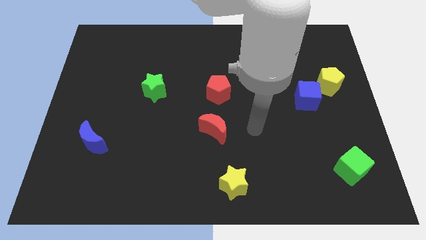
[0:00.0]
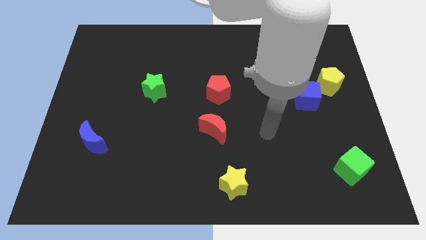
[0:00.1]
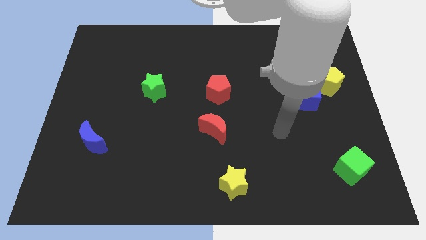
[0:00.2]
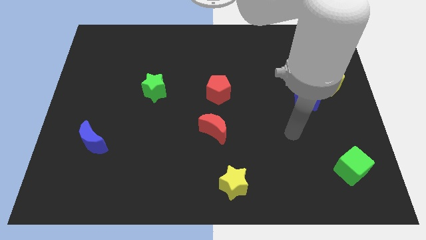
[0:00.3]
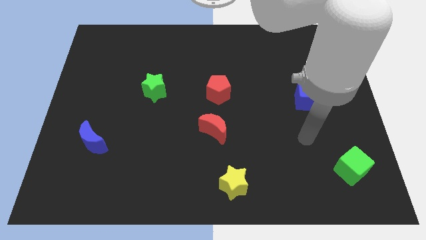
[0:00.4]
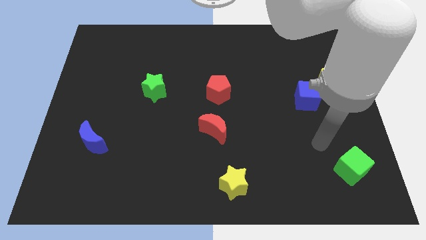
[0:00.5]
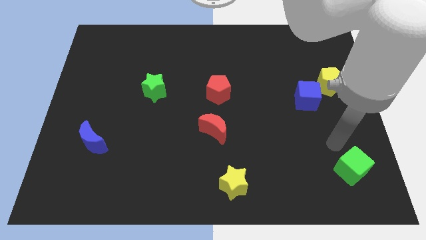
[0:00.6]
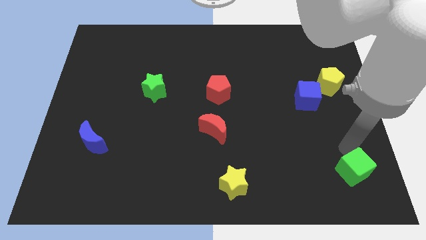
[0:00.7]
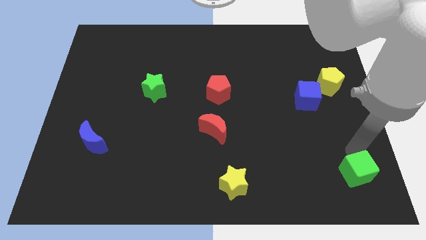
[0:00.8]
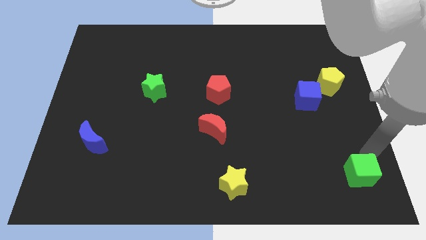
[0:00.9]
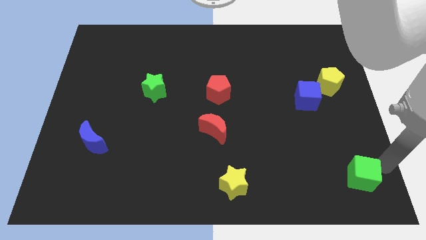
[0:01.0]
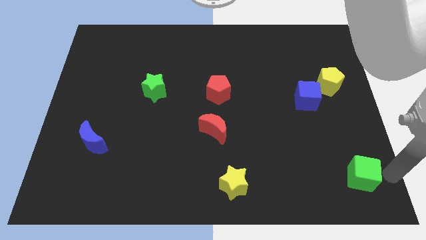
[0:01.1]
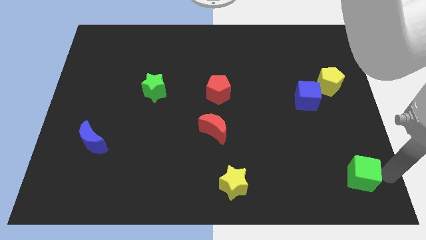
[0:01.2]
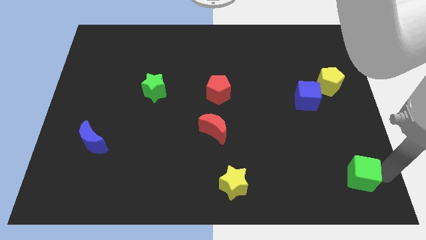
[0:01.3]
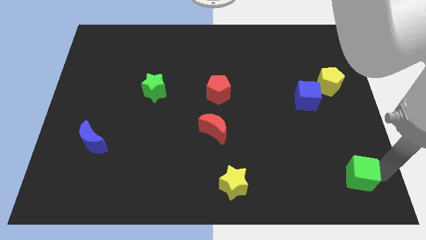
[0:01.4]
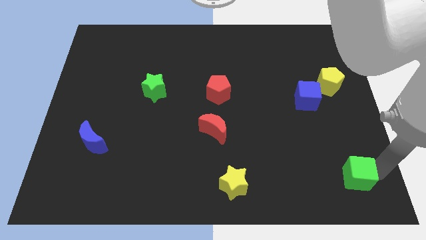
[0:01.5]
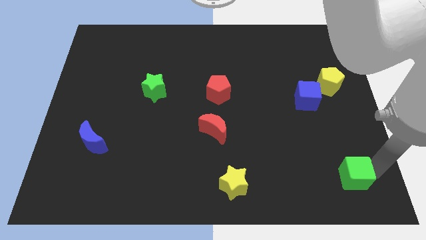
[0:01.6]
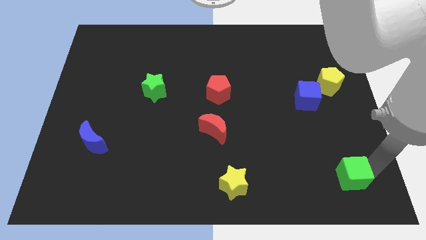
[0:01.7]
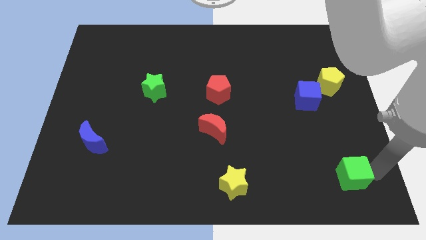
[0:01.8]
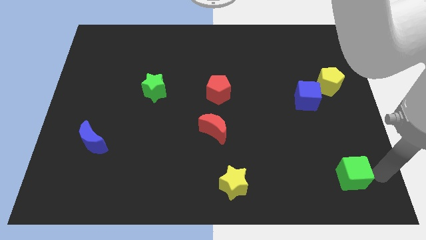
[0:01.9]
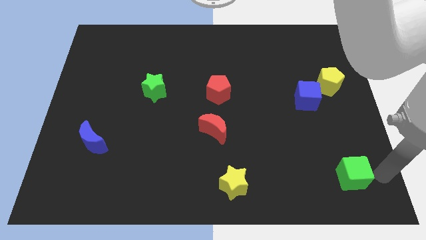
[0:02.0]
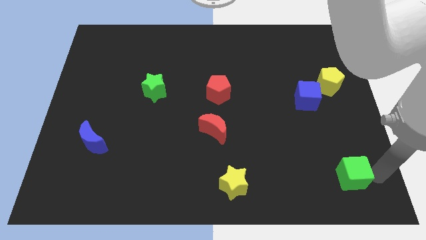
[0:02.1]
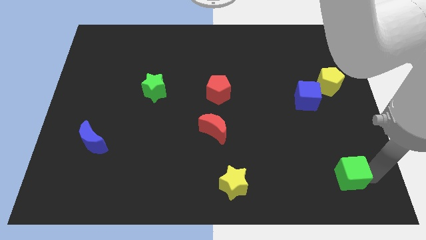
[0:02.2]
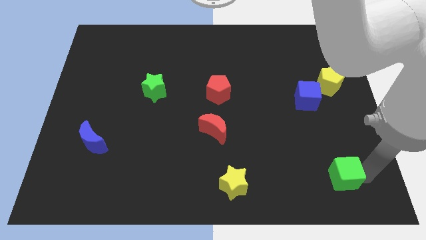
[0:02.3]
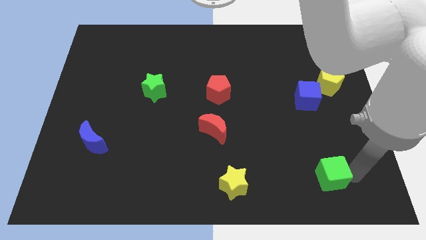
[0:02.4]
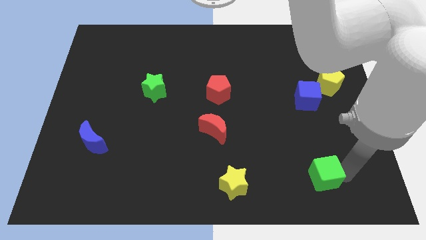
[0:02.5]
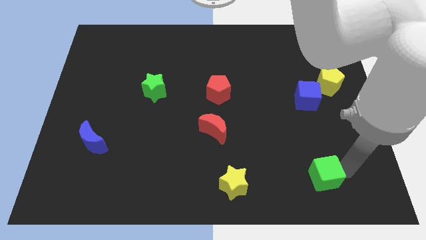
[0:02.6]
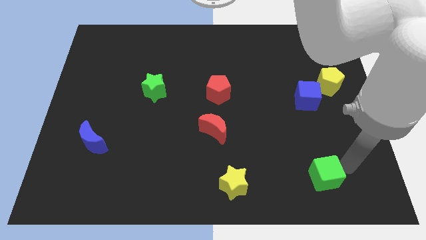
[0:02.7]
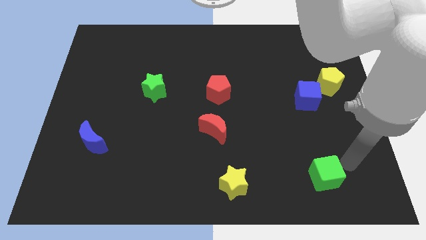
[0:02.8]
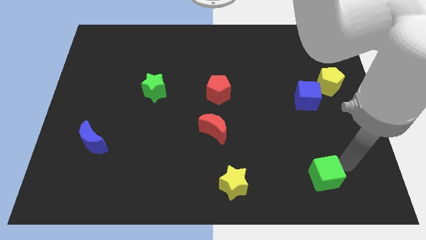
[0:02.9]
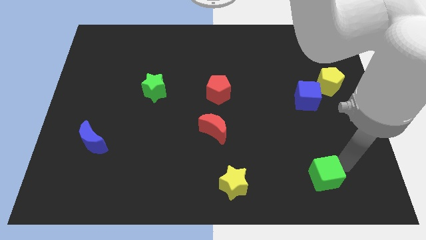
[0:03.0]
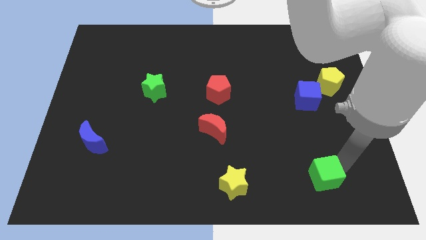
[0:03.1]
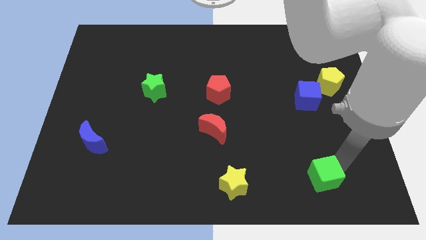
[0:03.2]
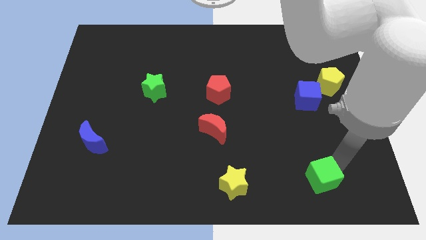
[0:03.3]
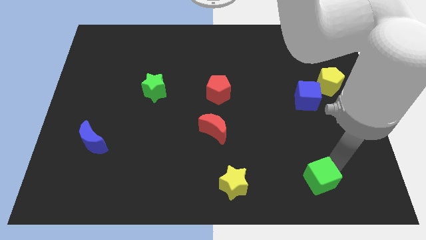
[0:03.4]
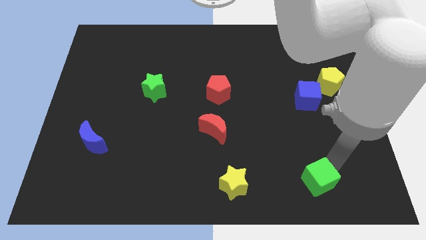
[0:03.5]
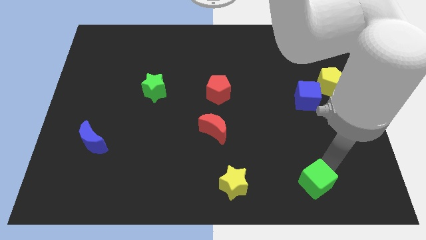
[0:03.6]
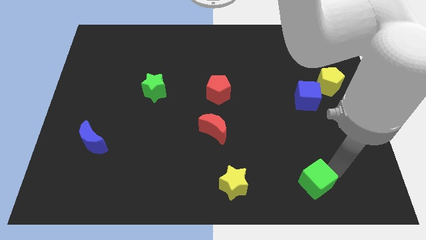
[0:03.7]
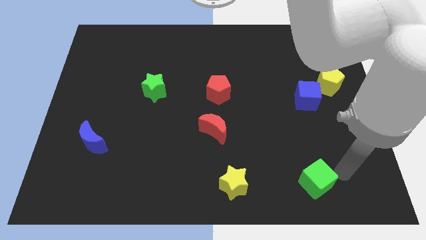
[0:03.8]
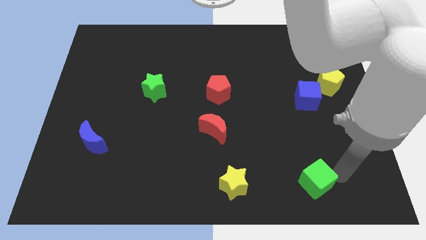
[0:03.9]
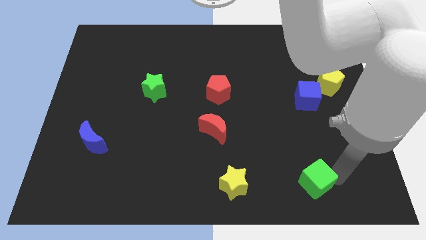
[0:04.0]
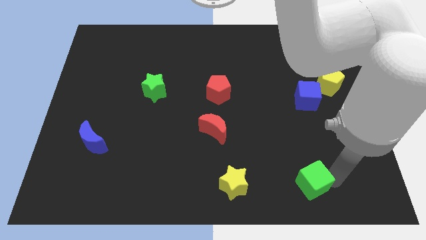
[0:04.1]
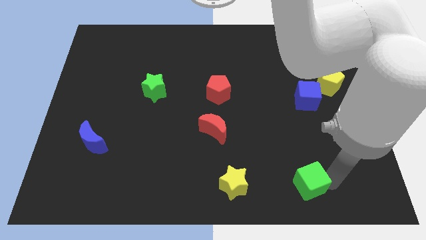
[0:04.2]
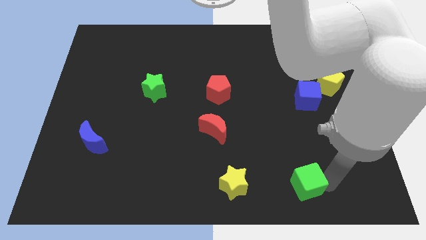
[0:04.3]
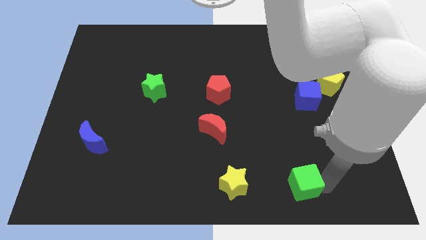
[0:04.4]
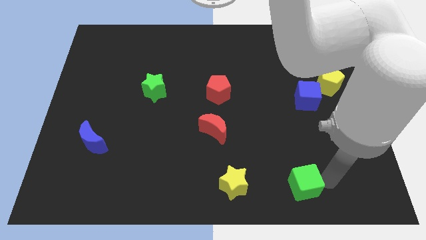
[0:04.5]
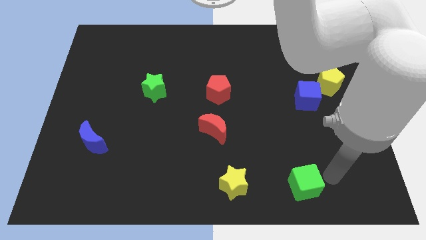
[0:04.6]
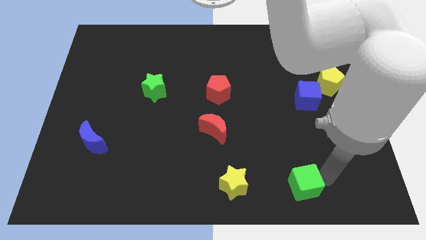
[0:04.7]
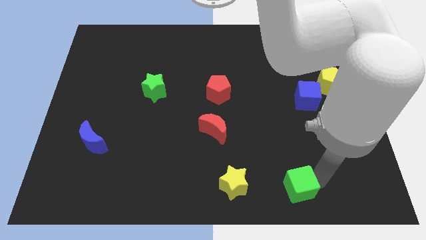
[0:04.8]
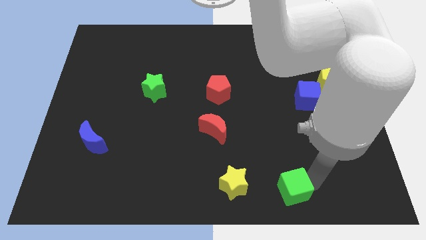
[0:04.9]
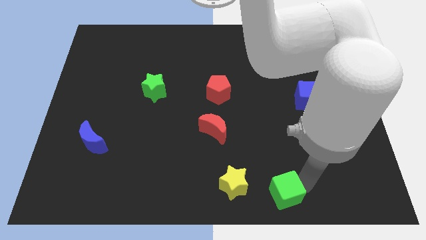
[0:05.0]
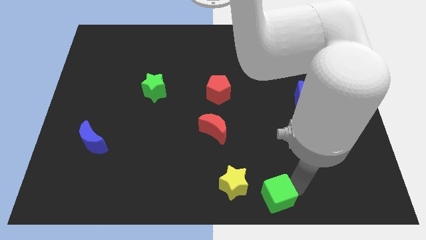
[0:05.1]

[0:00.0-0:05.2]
put the green cube to the bottom side

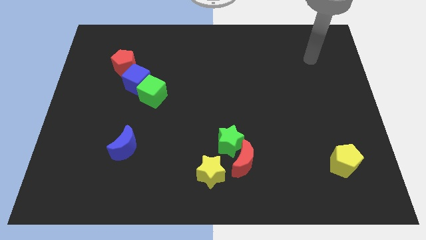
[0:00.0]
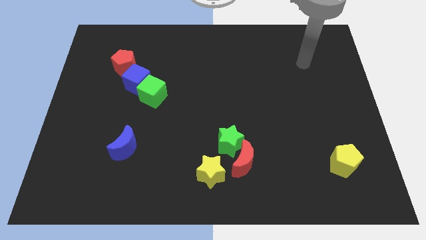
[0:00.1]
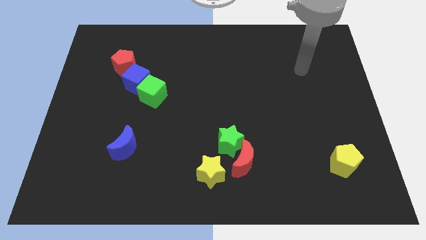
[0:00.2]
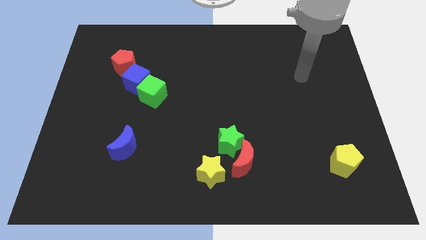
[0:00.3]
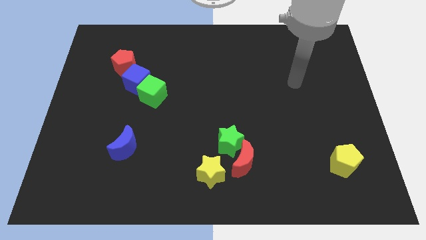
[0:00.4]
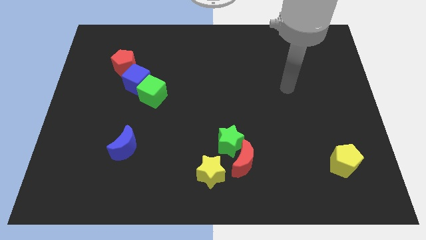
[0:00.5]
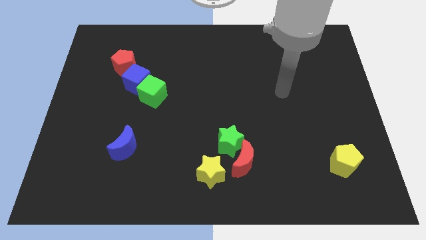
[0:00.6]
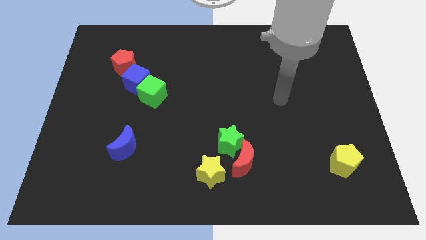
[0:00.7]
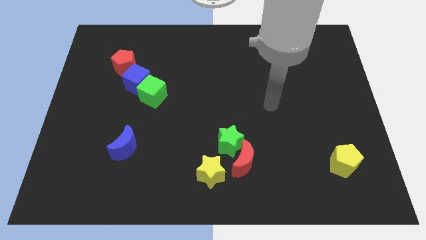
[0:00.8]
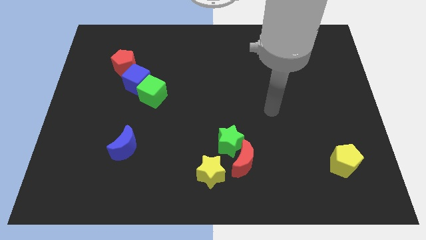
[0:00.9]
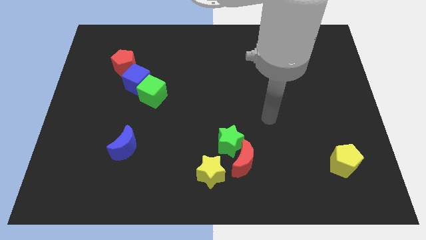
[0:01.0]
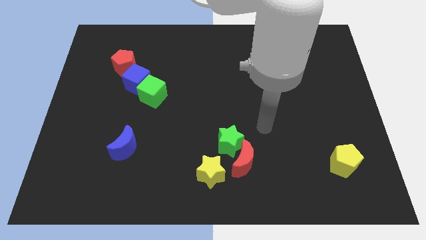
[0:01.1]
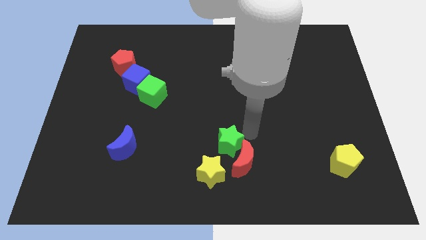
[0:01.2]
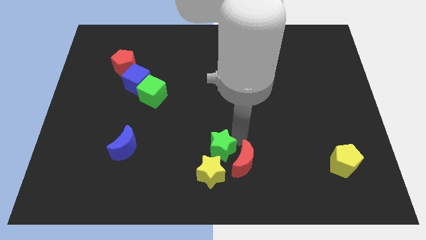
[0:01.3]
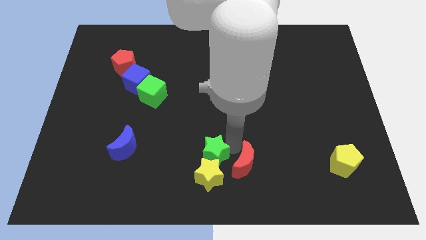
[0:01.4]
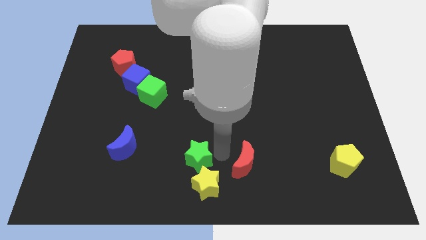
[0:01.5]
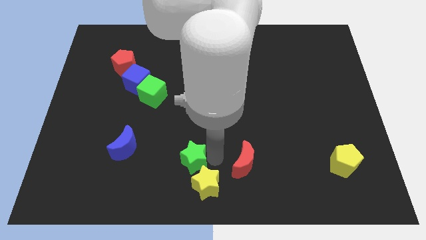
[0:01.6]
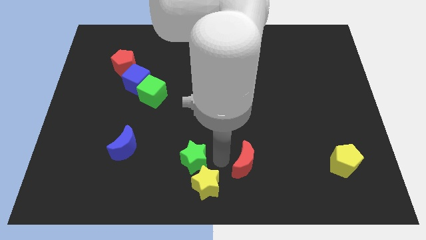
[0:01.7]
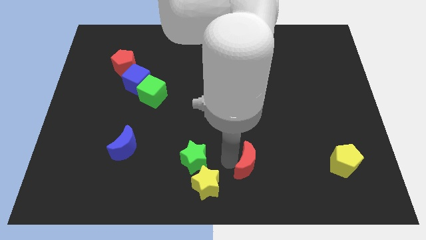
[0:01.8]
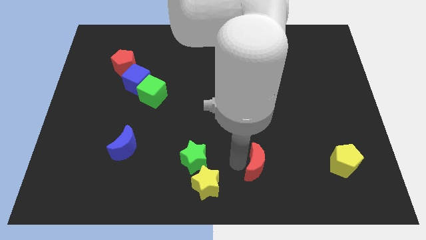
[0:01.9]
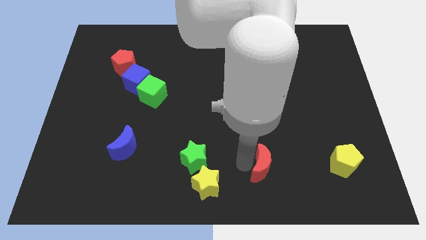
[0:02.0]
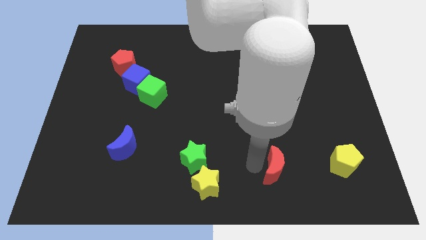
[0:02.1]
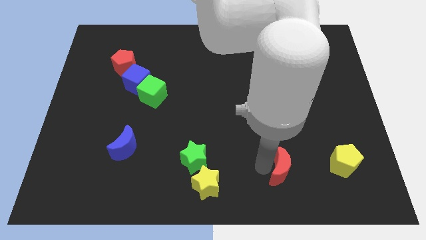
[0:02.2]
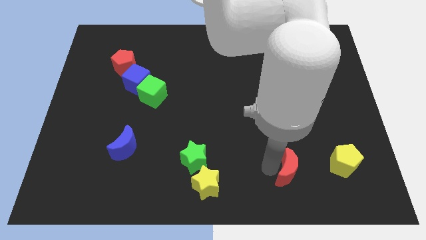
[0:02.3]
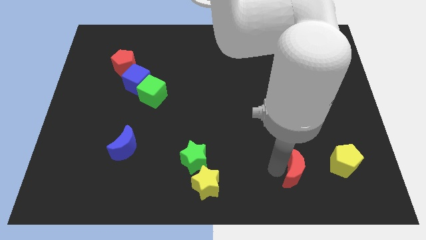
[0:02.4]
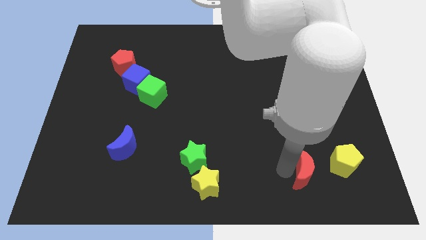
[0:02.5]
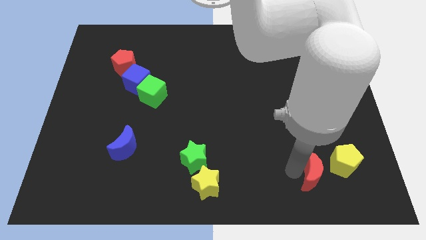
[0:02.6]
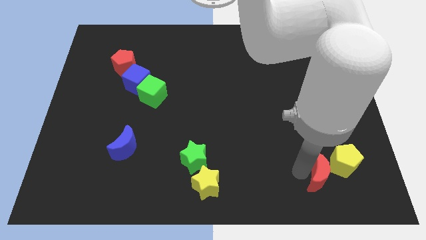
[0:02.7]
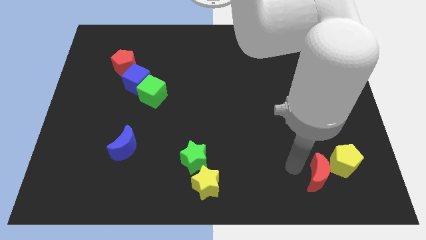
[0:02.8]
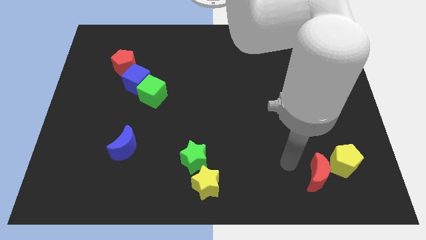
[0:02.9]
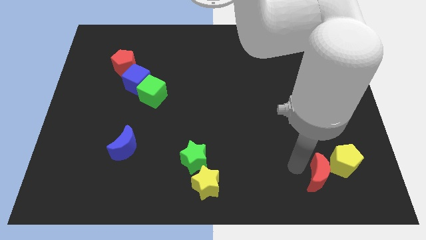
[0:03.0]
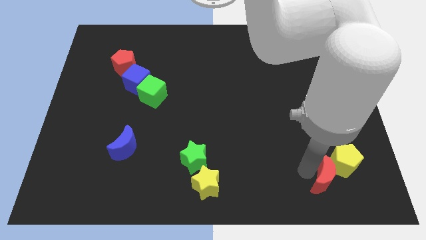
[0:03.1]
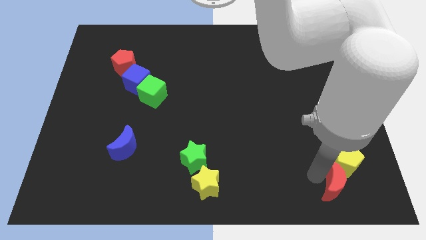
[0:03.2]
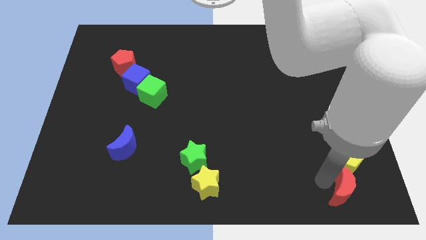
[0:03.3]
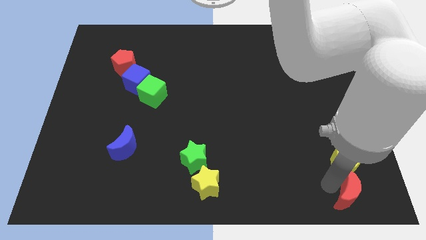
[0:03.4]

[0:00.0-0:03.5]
slide the red moon to the bottom right corner
